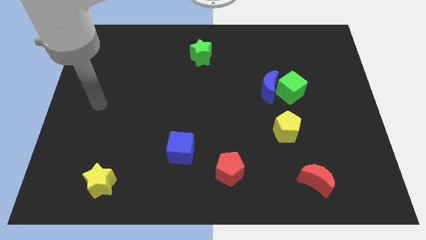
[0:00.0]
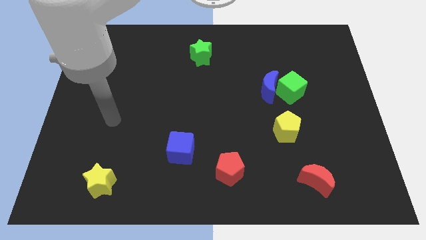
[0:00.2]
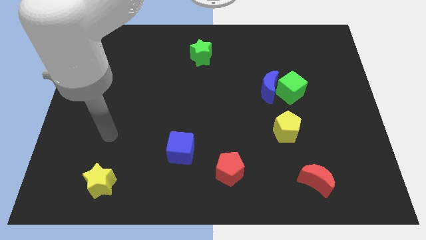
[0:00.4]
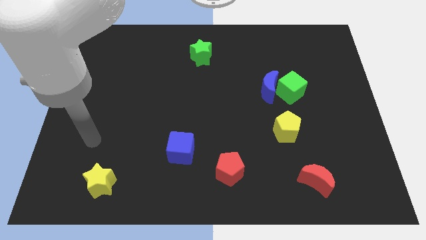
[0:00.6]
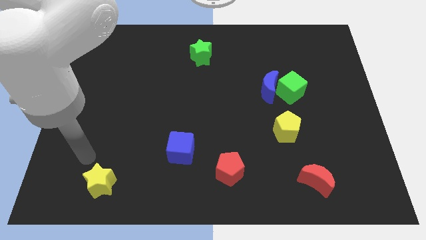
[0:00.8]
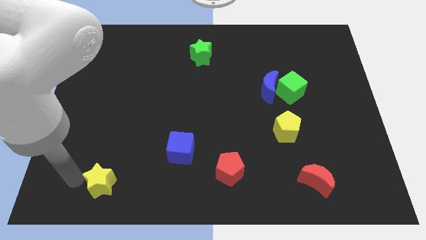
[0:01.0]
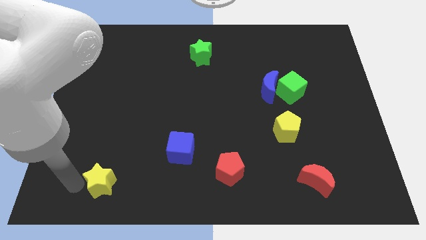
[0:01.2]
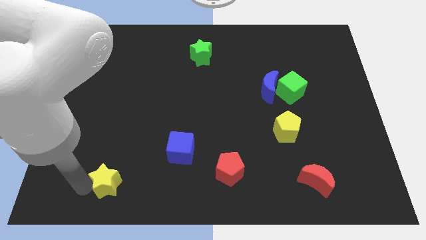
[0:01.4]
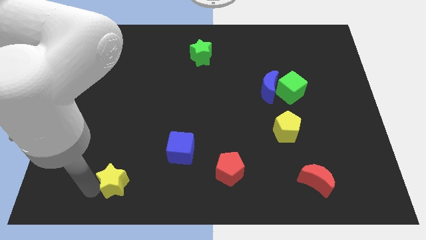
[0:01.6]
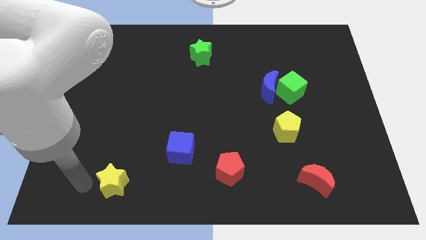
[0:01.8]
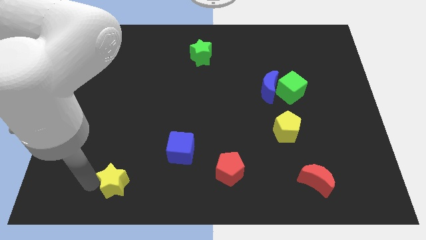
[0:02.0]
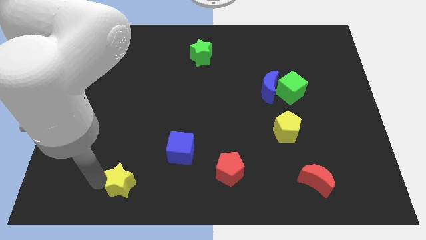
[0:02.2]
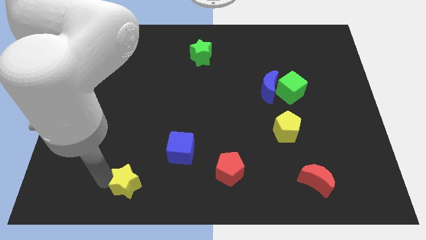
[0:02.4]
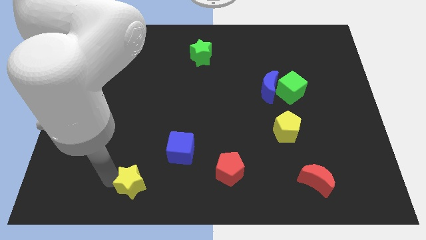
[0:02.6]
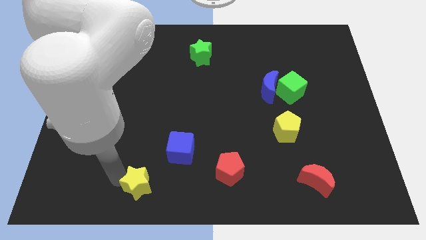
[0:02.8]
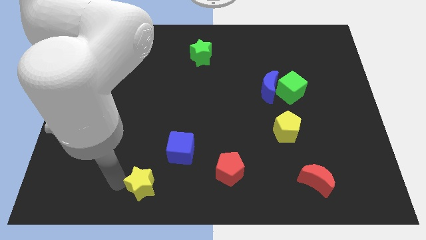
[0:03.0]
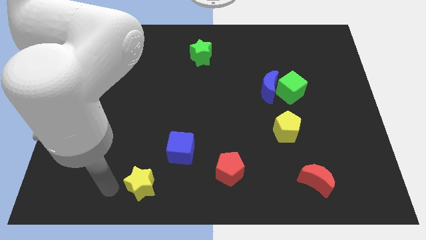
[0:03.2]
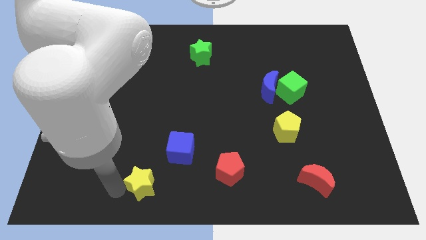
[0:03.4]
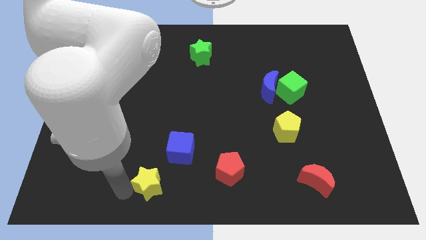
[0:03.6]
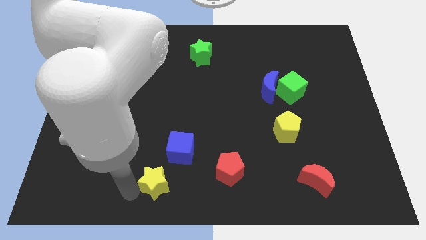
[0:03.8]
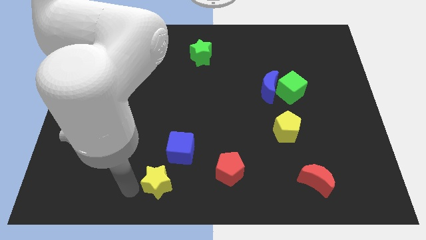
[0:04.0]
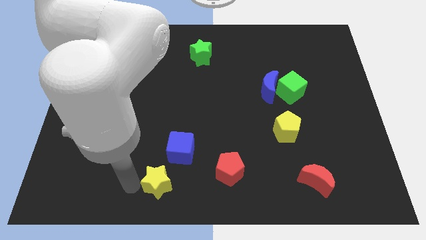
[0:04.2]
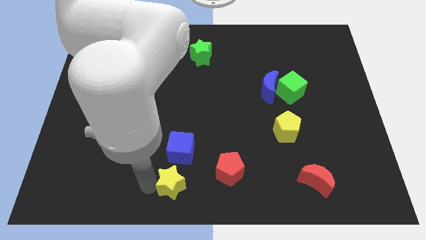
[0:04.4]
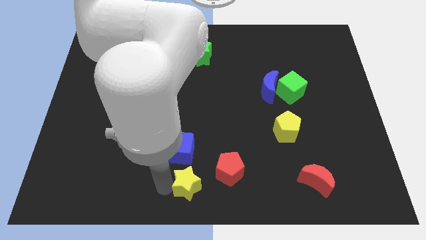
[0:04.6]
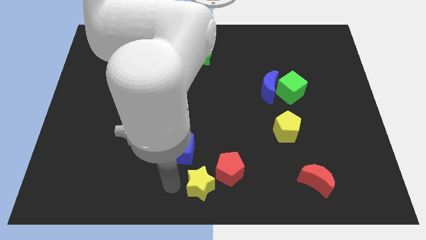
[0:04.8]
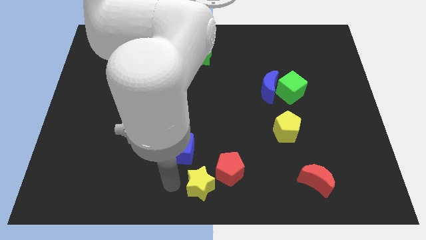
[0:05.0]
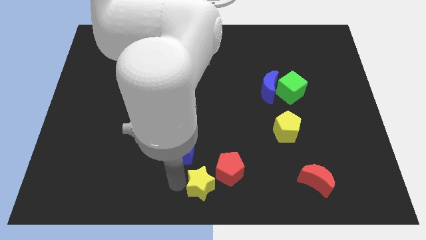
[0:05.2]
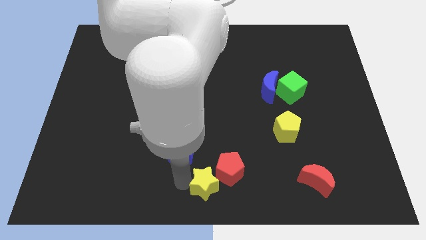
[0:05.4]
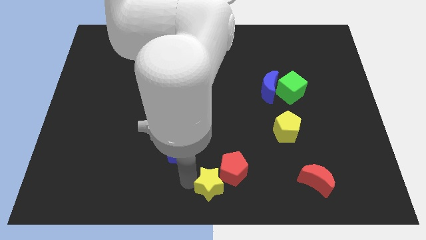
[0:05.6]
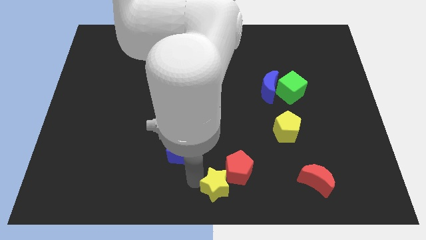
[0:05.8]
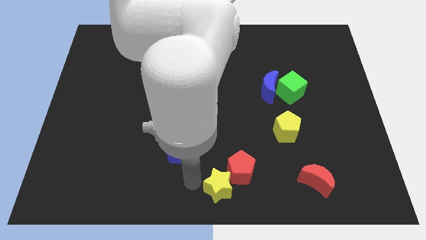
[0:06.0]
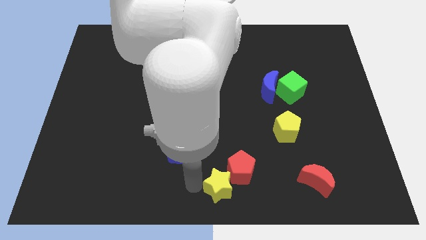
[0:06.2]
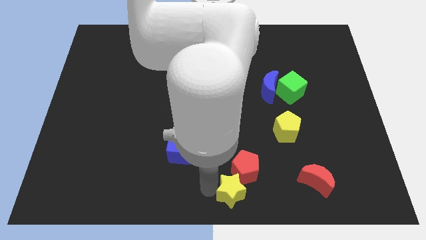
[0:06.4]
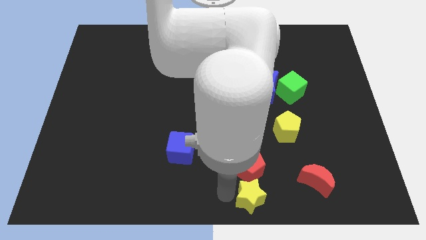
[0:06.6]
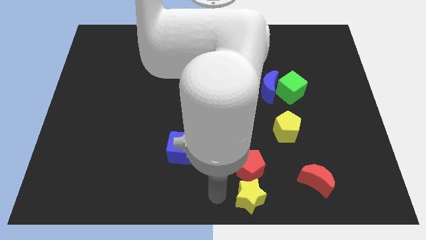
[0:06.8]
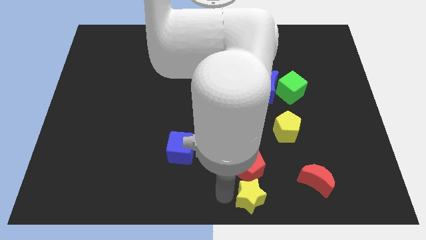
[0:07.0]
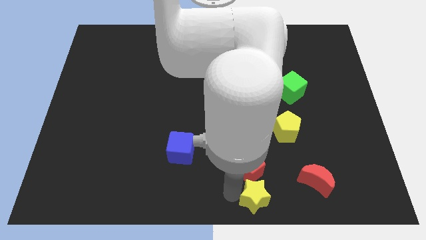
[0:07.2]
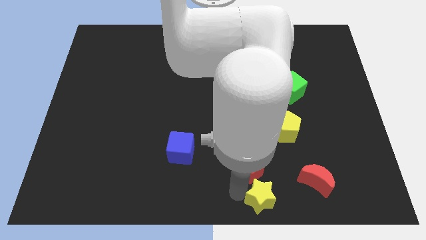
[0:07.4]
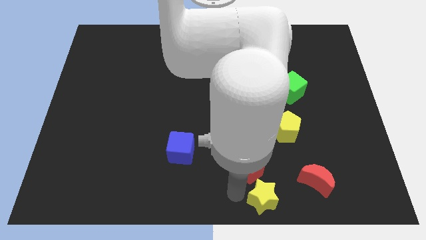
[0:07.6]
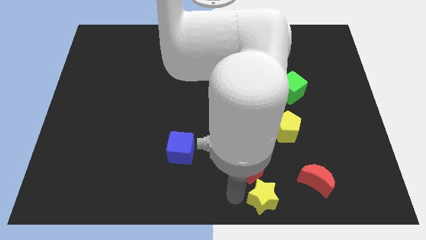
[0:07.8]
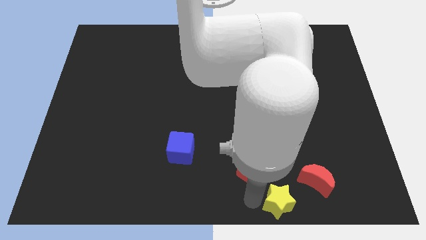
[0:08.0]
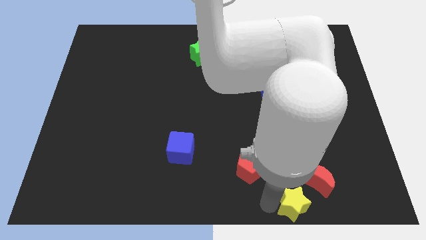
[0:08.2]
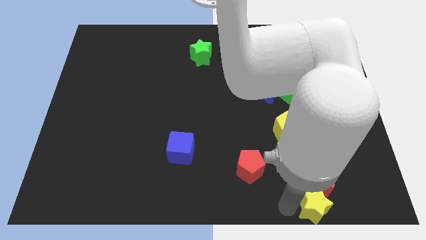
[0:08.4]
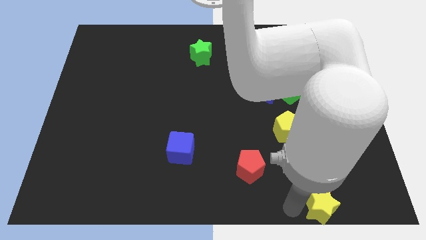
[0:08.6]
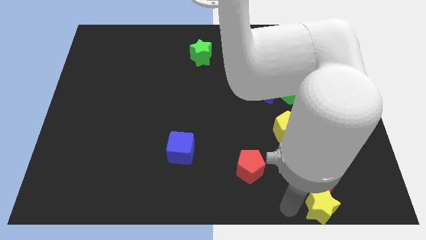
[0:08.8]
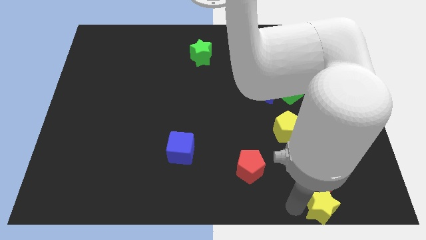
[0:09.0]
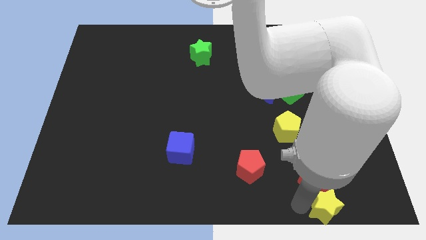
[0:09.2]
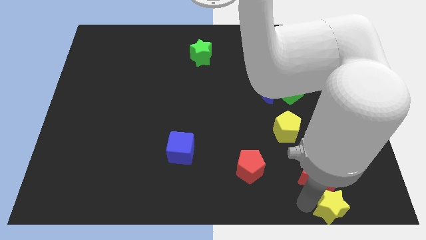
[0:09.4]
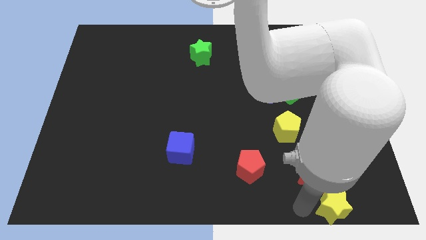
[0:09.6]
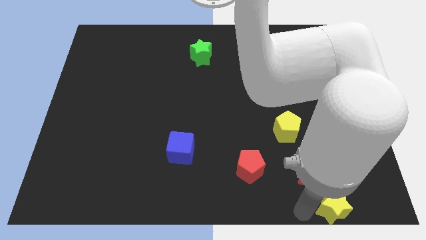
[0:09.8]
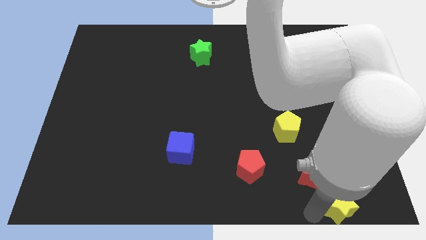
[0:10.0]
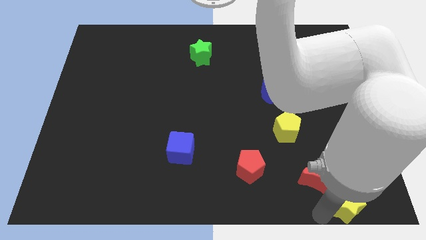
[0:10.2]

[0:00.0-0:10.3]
put the yellow star to the bottom right corner

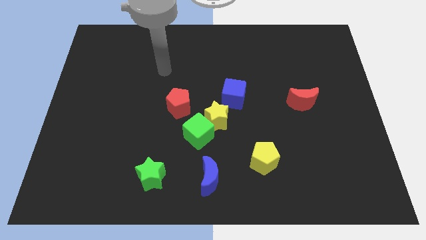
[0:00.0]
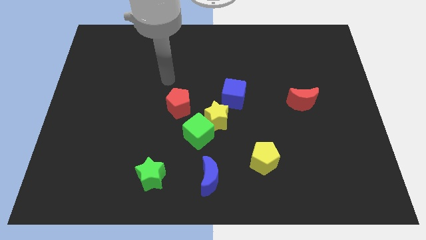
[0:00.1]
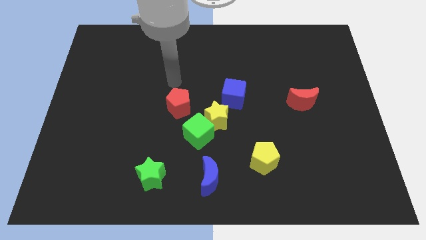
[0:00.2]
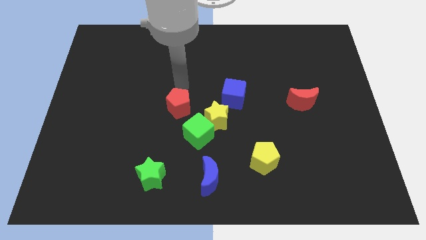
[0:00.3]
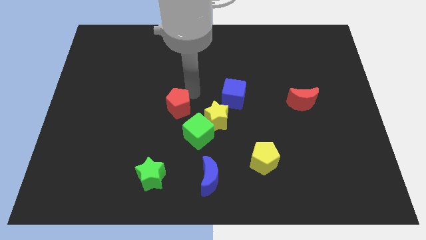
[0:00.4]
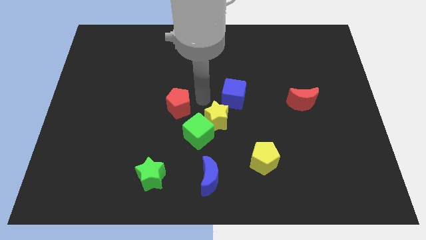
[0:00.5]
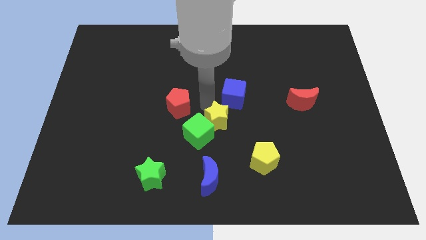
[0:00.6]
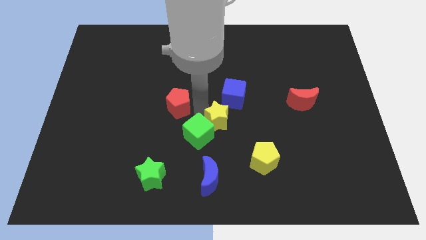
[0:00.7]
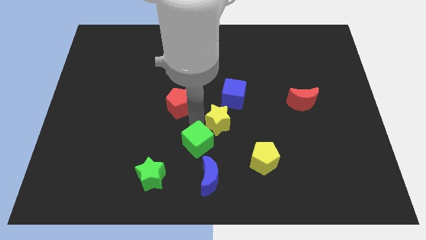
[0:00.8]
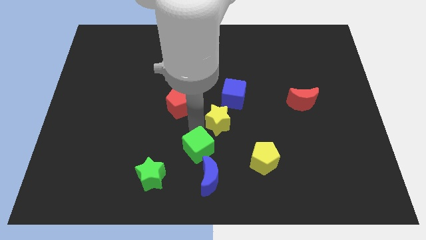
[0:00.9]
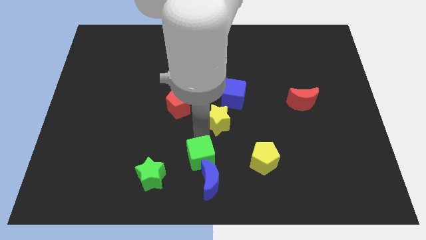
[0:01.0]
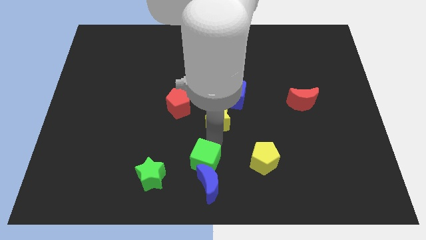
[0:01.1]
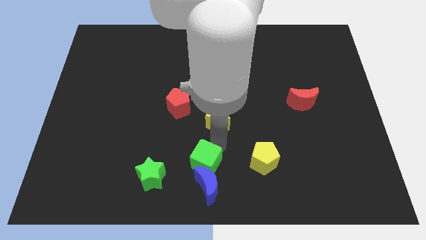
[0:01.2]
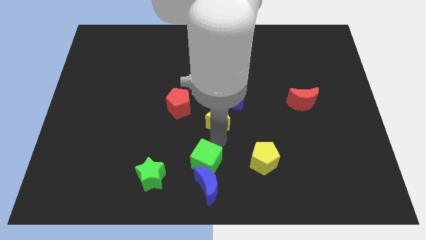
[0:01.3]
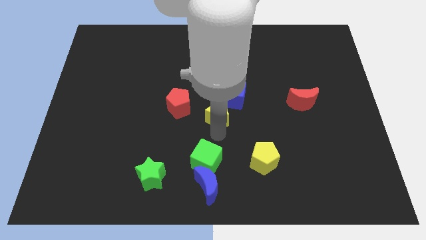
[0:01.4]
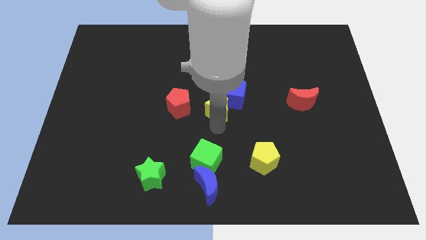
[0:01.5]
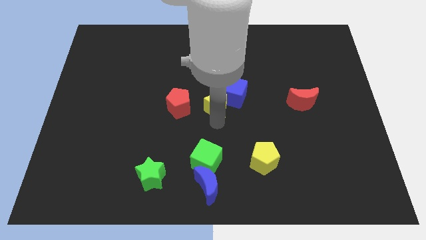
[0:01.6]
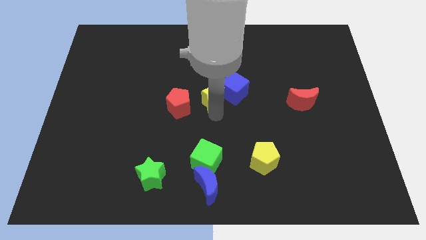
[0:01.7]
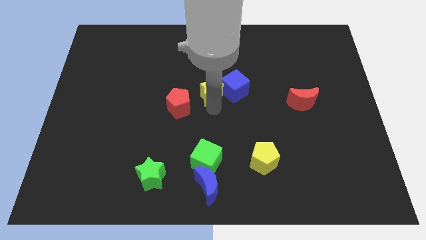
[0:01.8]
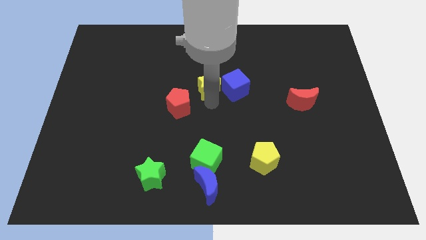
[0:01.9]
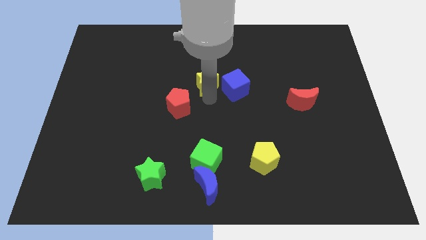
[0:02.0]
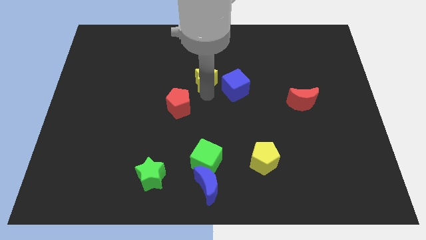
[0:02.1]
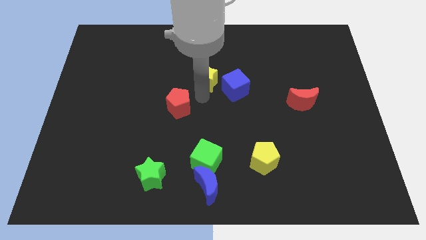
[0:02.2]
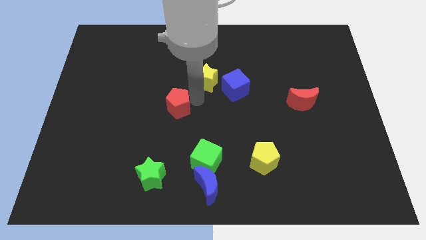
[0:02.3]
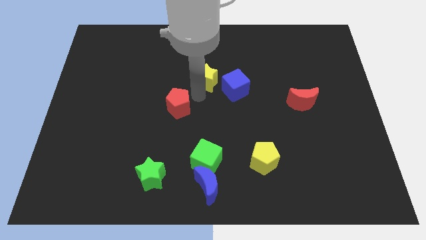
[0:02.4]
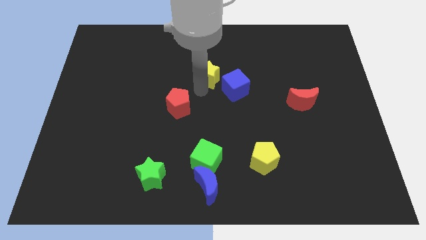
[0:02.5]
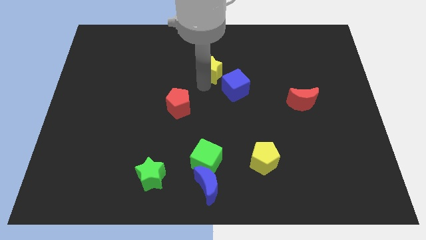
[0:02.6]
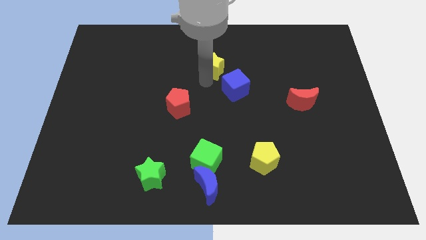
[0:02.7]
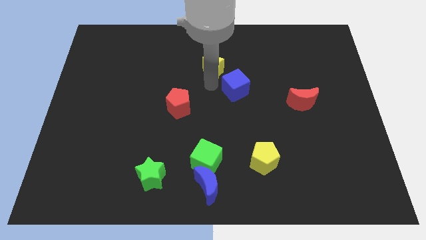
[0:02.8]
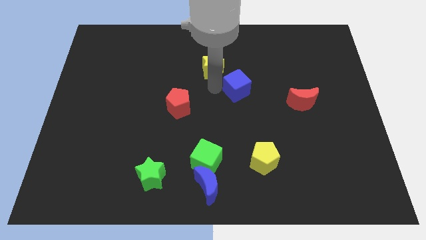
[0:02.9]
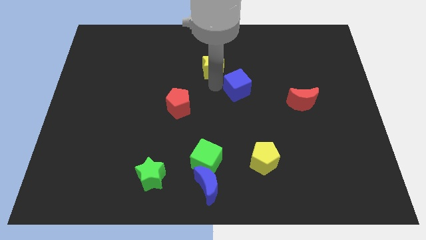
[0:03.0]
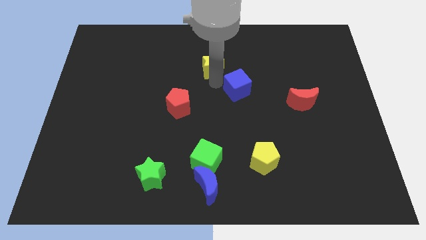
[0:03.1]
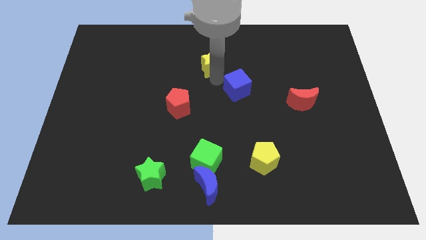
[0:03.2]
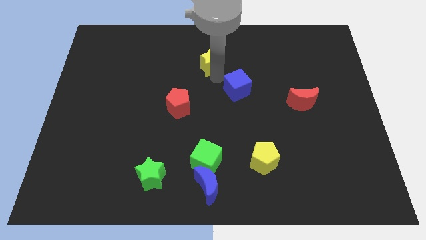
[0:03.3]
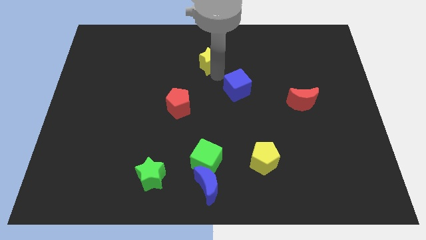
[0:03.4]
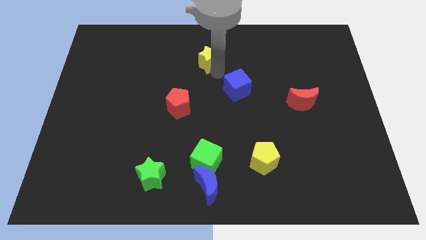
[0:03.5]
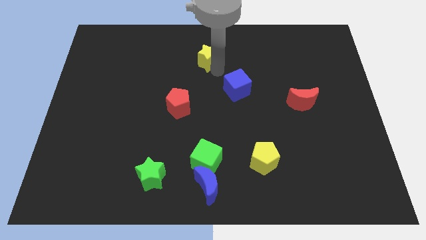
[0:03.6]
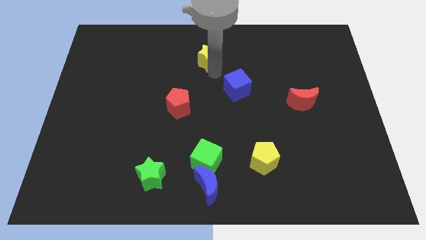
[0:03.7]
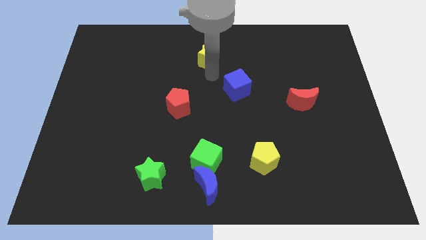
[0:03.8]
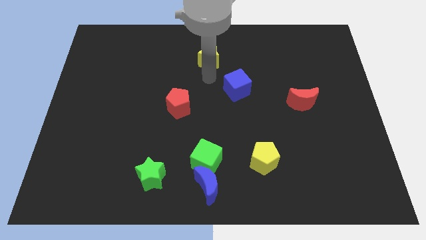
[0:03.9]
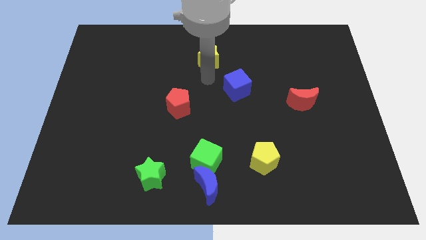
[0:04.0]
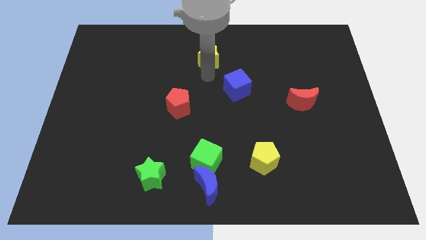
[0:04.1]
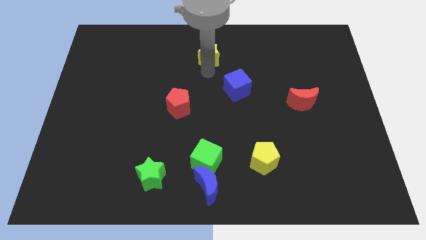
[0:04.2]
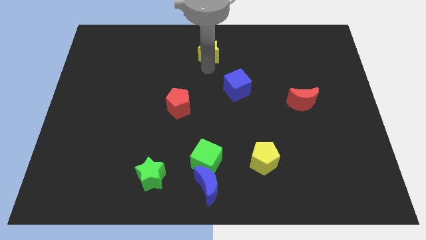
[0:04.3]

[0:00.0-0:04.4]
put the yellow star to the top
